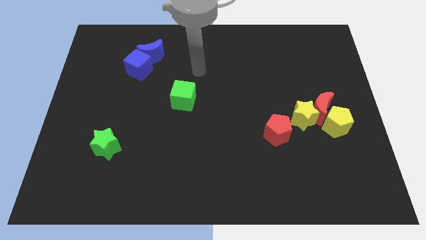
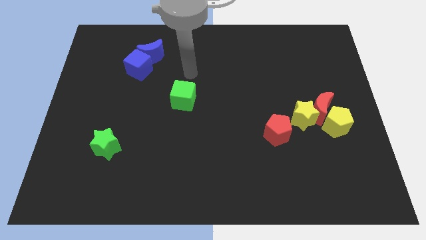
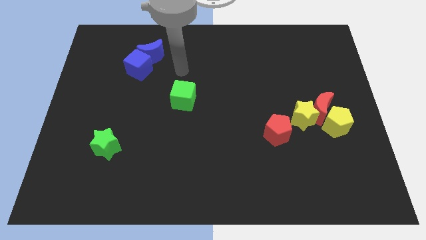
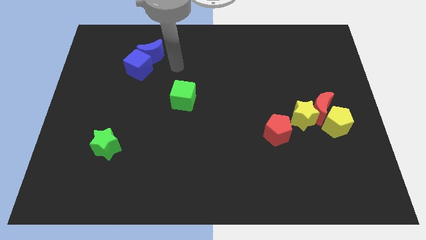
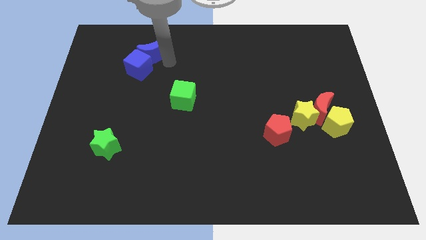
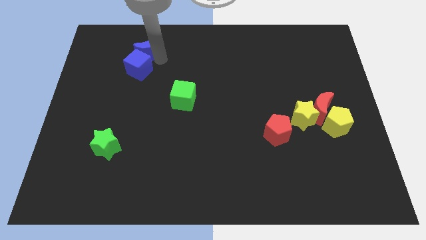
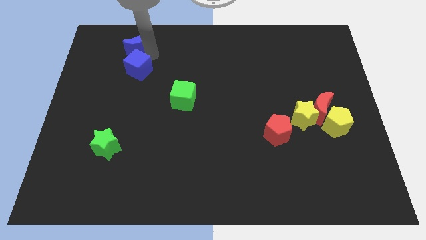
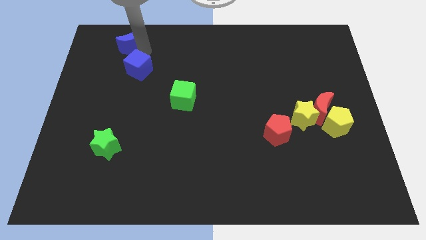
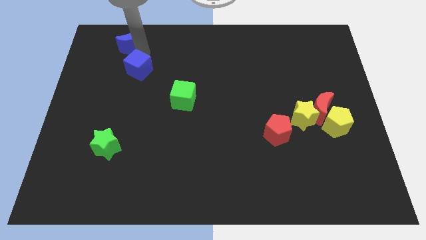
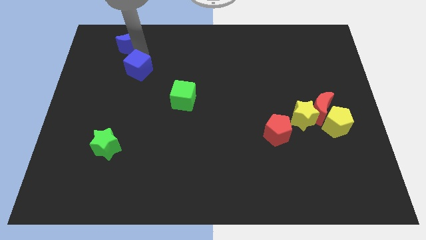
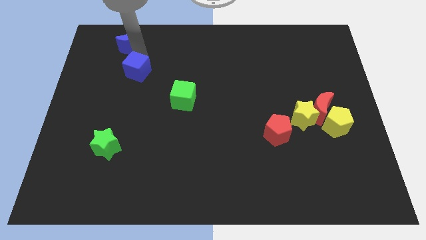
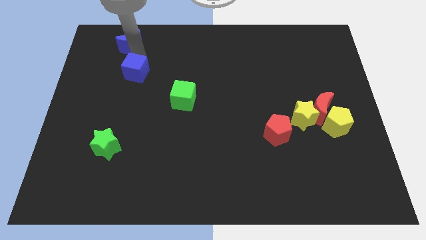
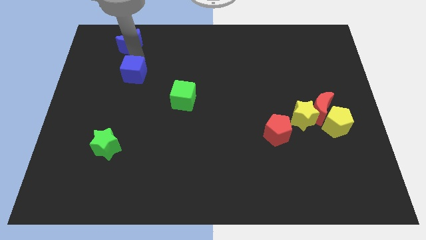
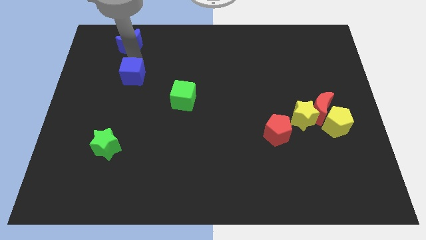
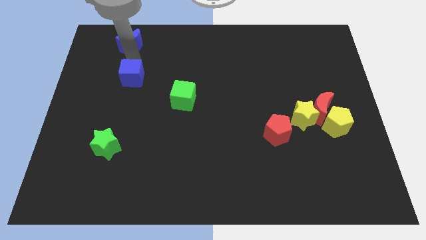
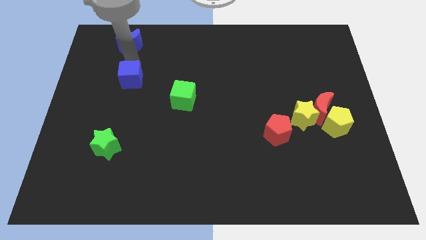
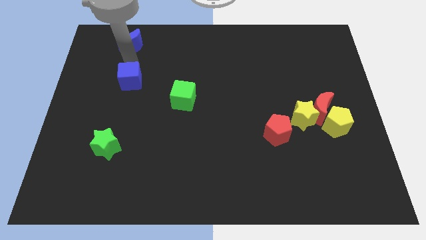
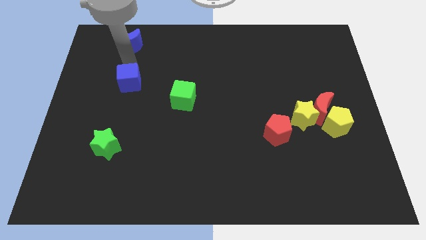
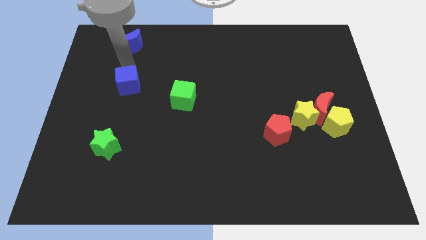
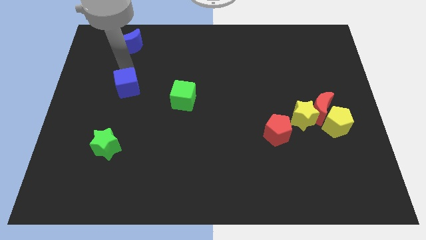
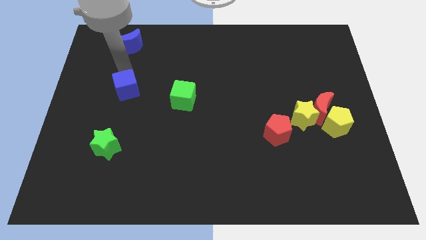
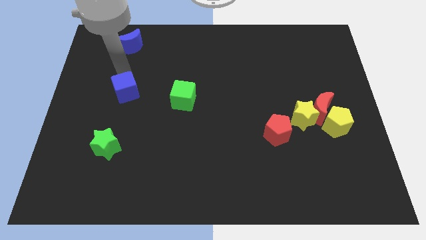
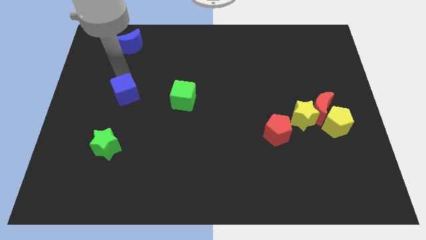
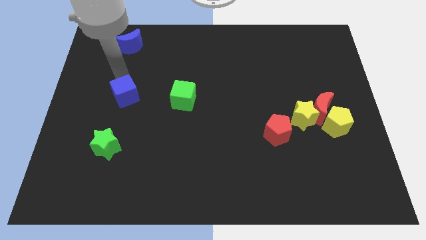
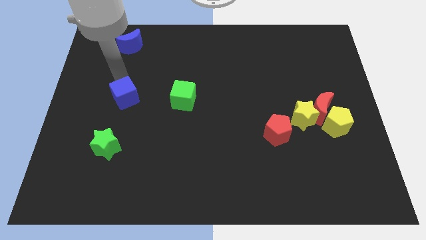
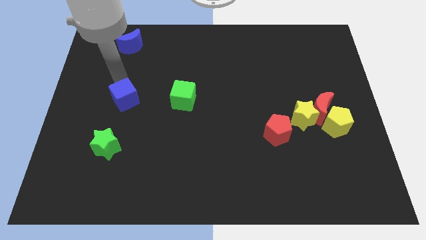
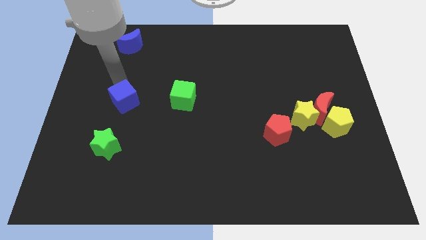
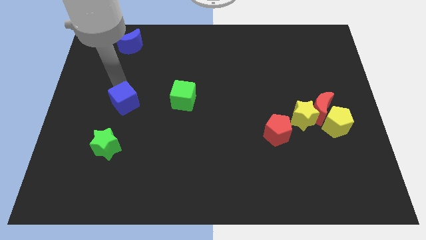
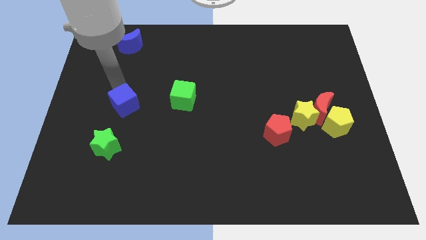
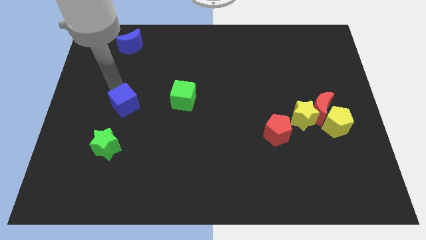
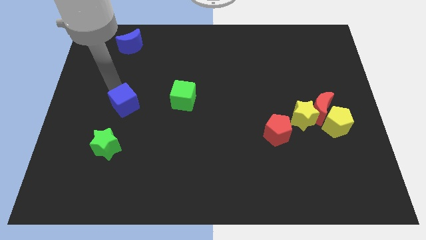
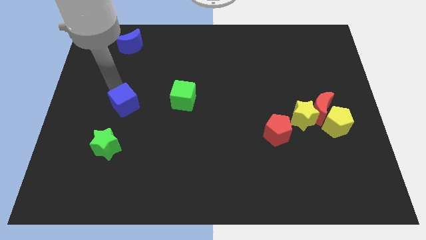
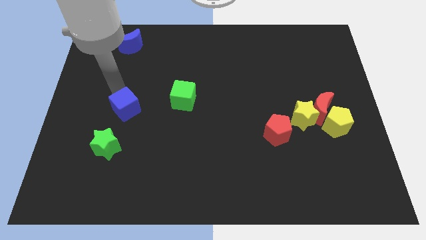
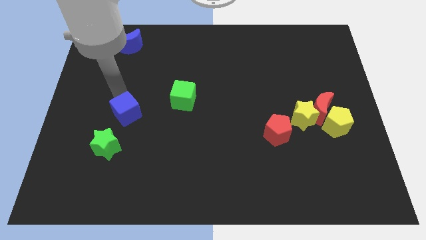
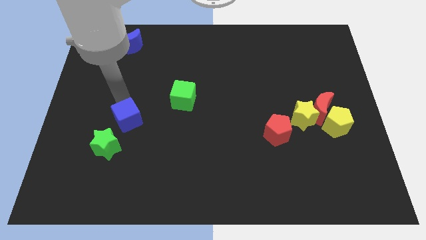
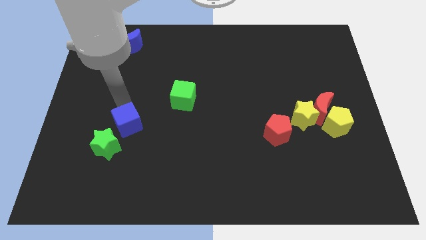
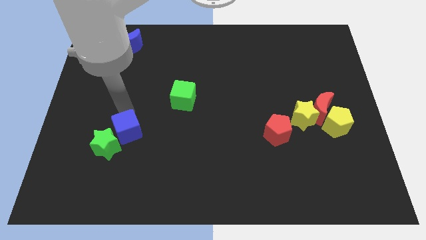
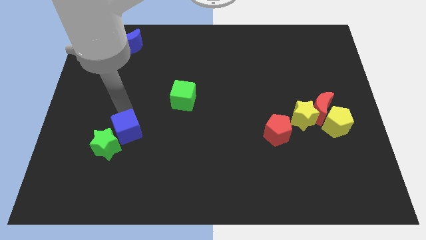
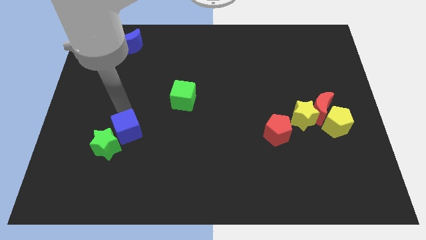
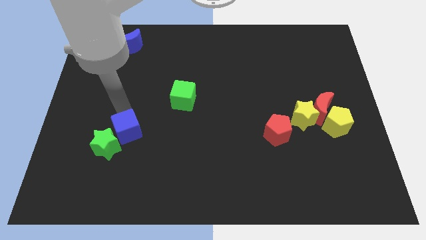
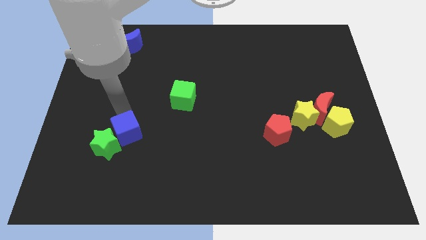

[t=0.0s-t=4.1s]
push the blue cube downwards

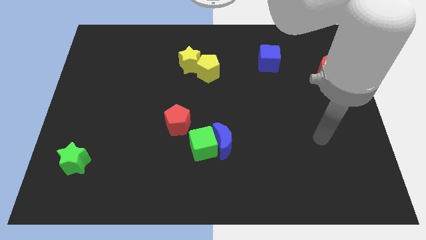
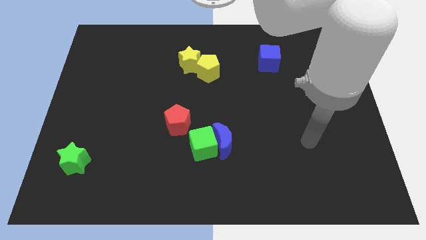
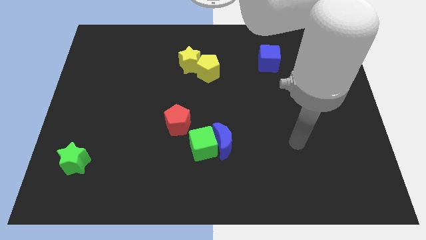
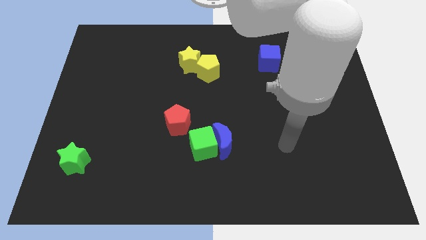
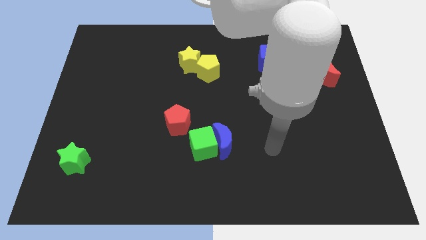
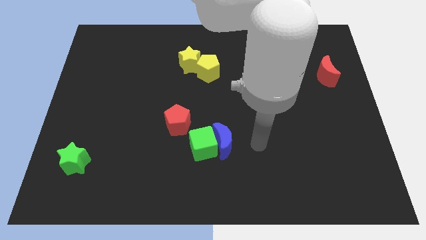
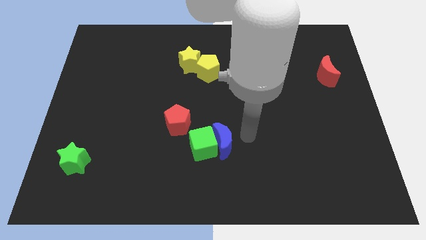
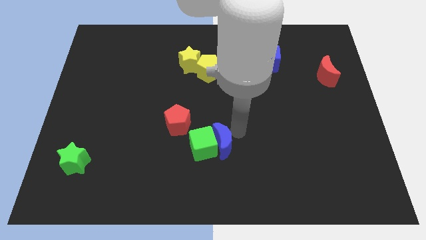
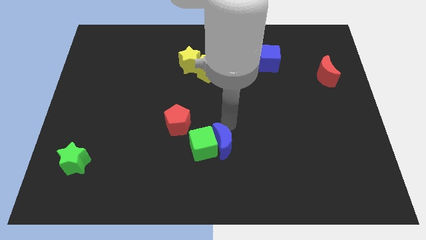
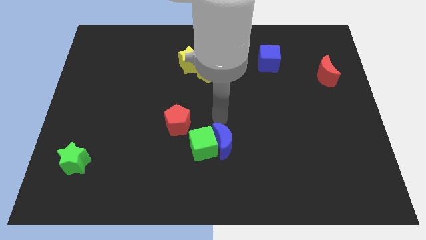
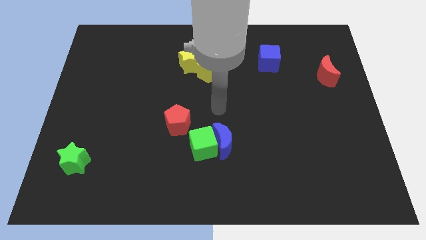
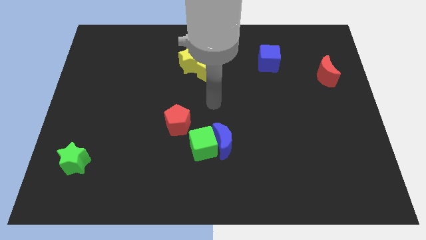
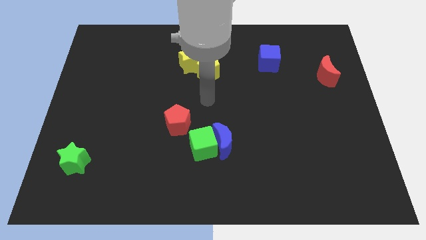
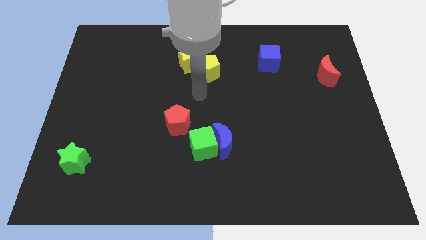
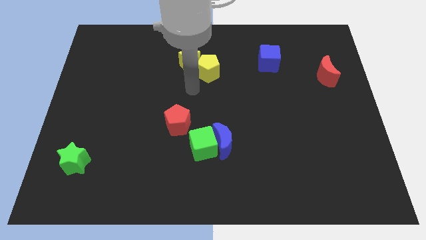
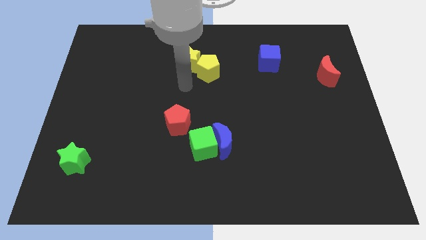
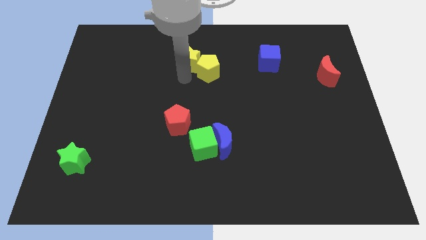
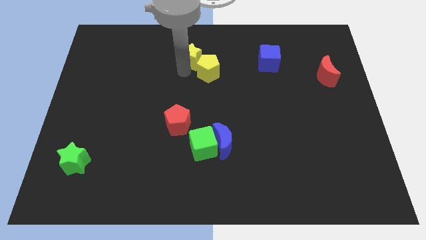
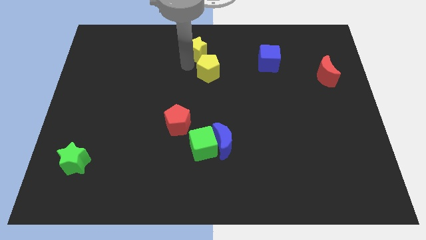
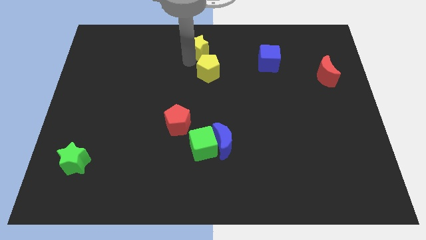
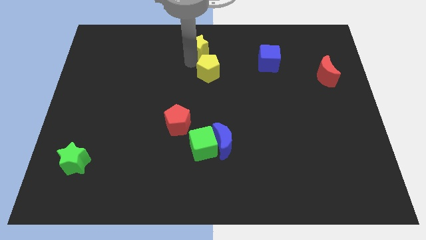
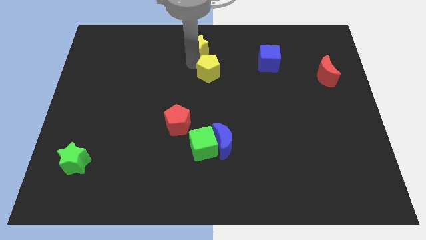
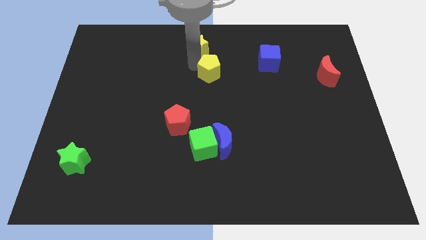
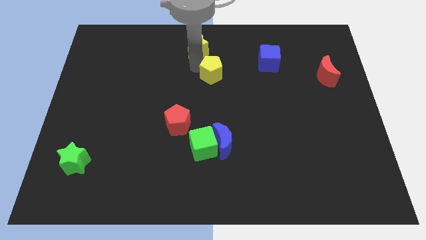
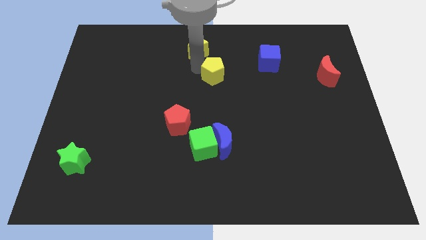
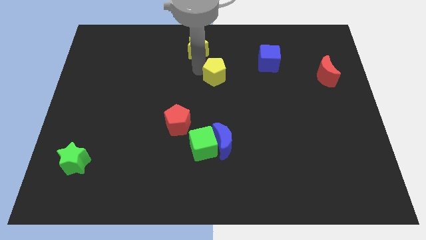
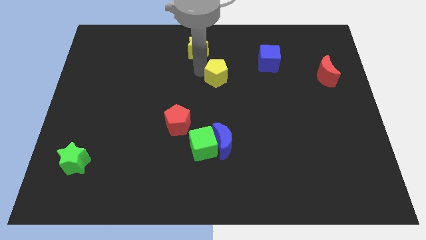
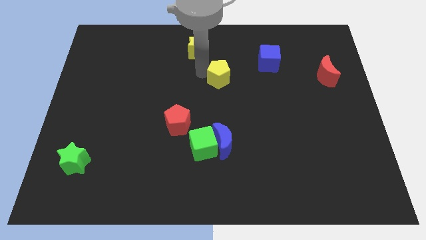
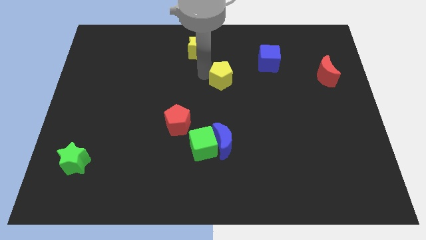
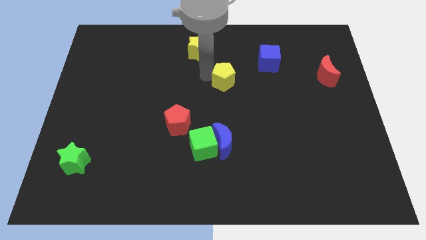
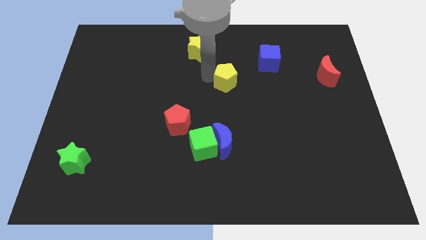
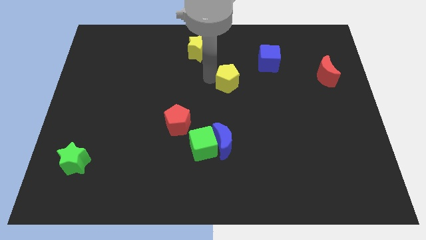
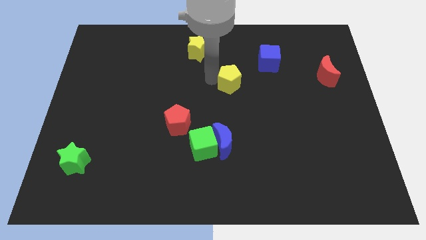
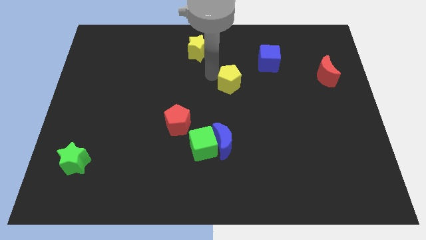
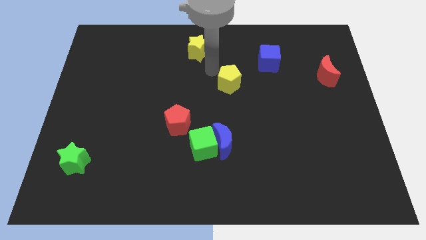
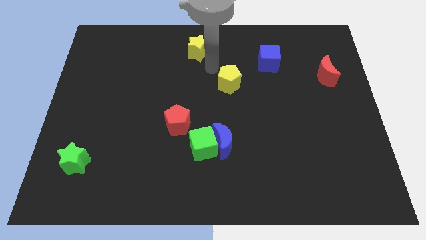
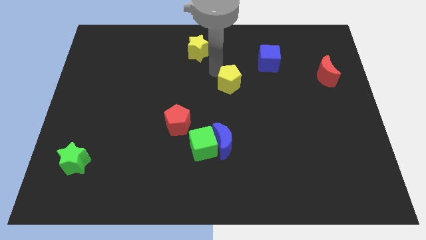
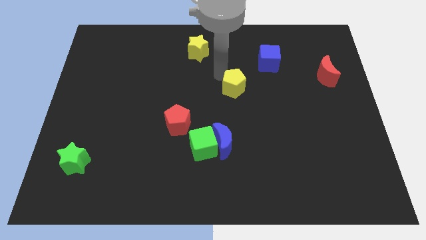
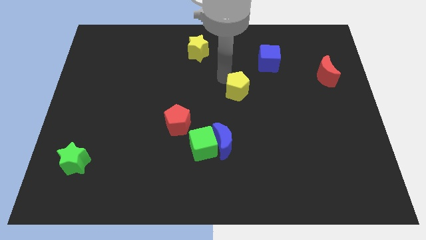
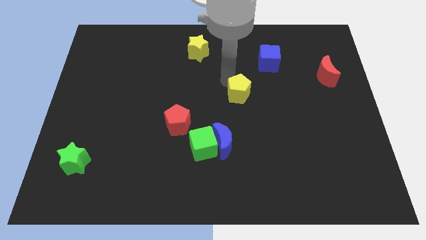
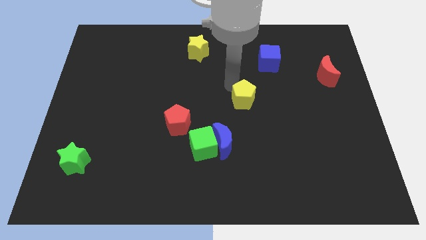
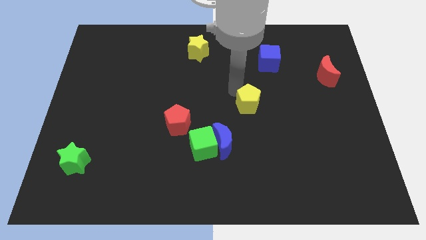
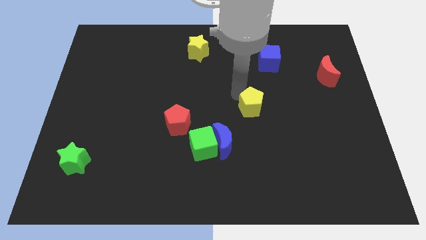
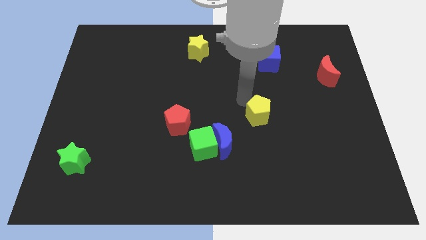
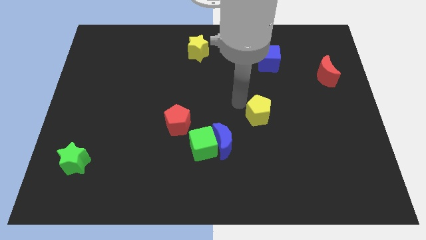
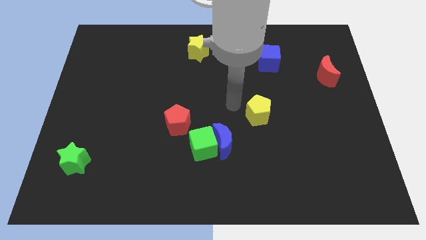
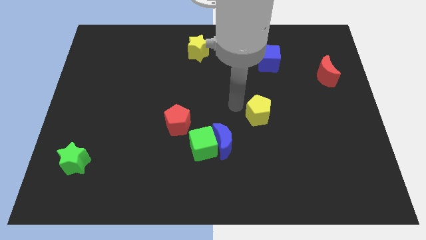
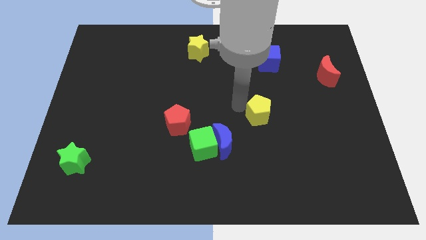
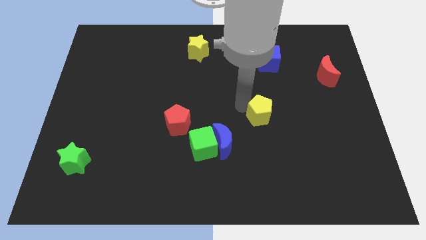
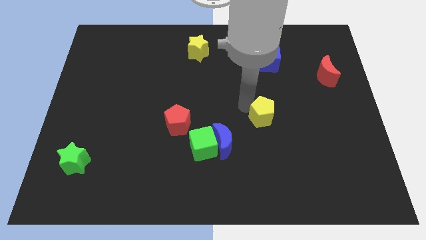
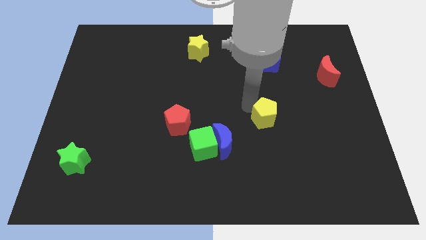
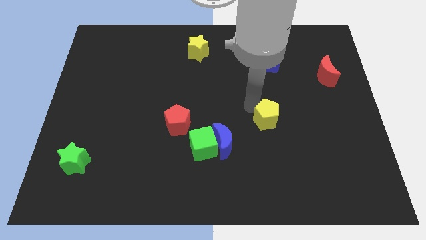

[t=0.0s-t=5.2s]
push the yellow pentagon down and then right
